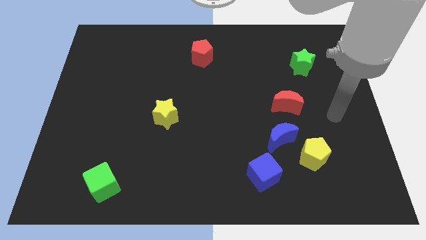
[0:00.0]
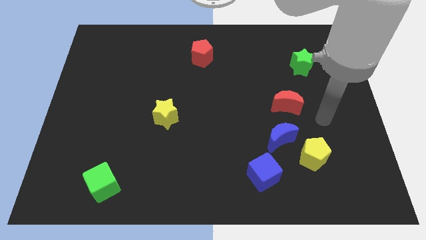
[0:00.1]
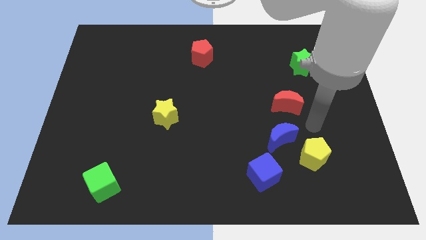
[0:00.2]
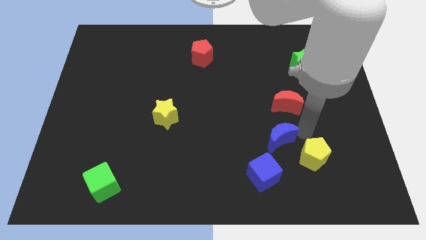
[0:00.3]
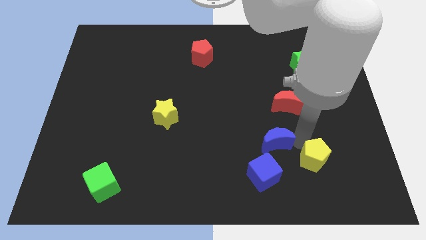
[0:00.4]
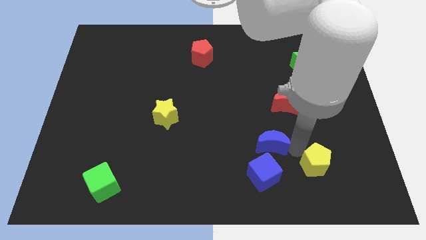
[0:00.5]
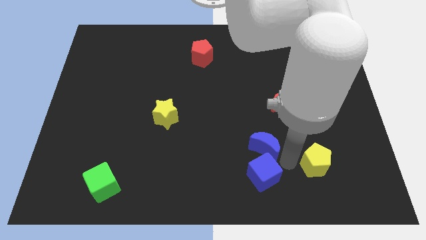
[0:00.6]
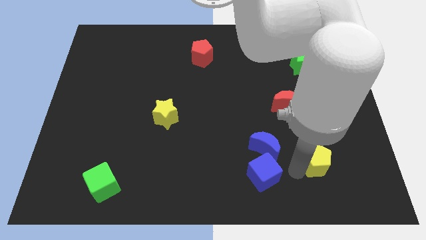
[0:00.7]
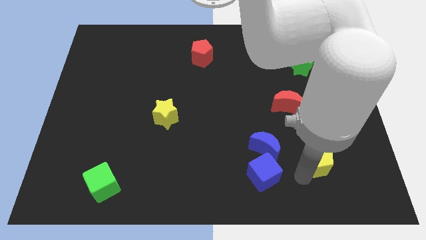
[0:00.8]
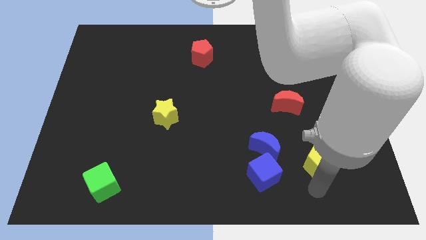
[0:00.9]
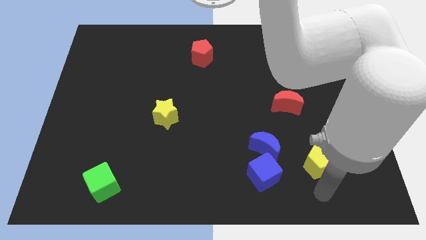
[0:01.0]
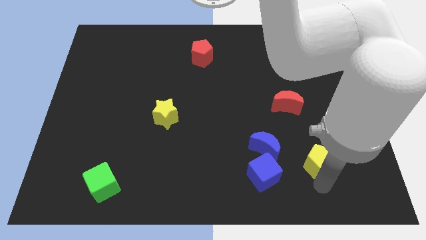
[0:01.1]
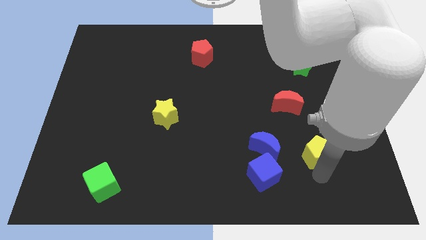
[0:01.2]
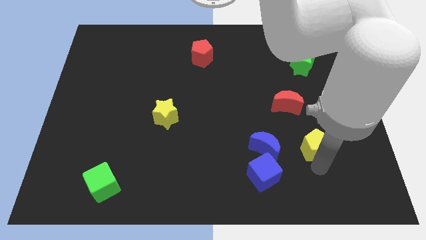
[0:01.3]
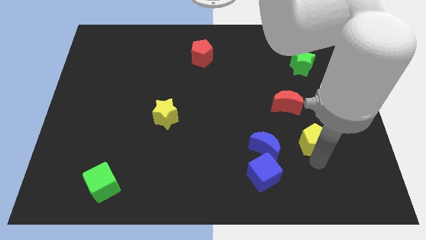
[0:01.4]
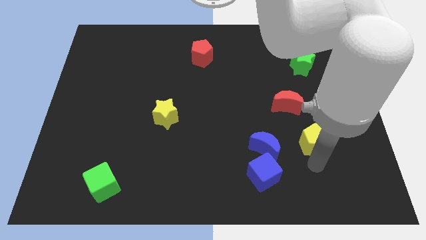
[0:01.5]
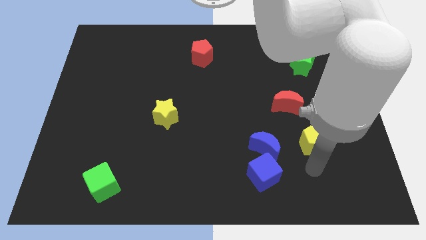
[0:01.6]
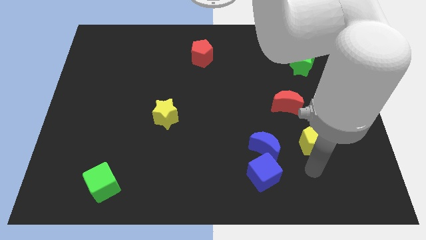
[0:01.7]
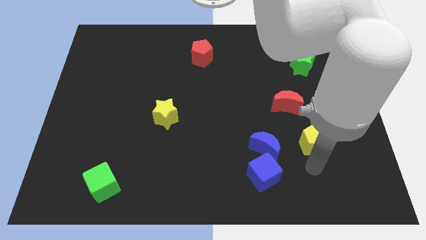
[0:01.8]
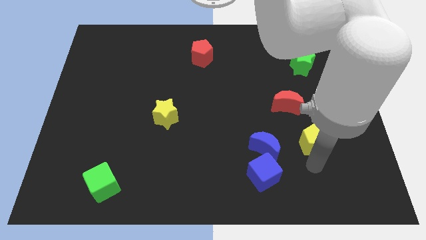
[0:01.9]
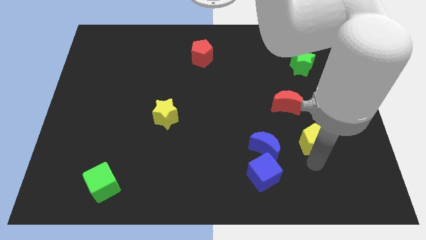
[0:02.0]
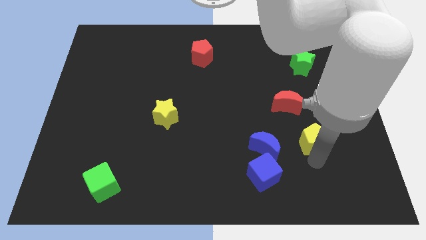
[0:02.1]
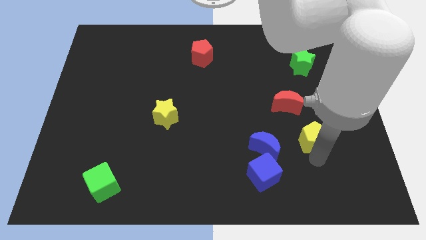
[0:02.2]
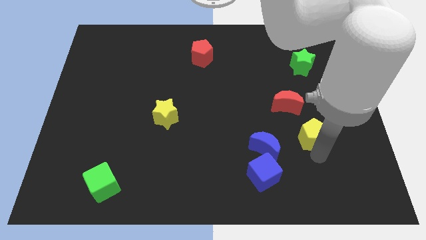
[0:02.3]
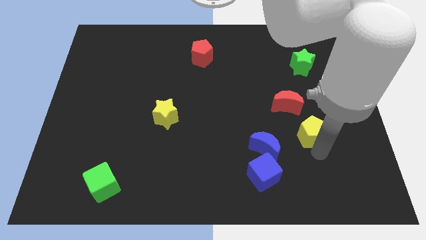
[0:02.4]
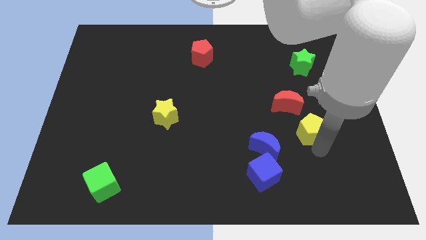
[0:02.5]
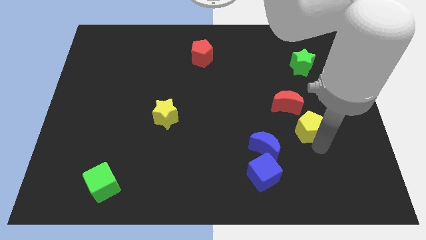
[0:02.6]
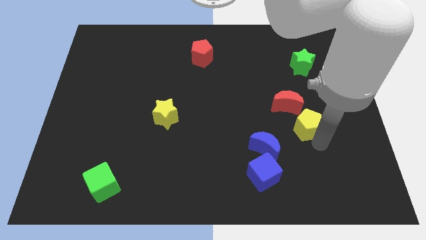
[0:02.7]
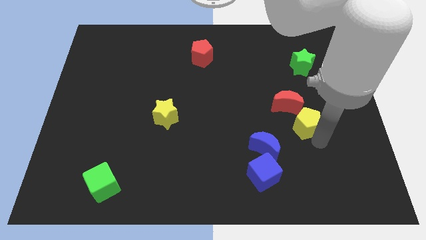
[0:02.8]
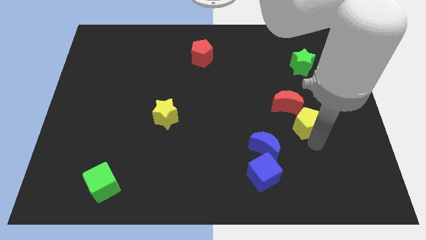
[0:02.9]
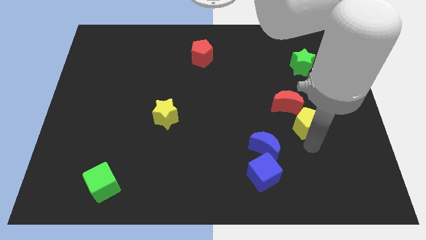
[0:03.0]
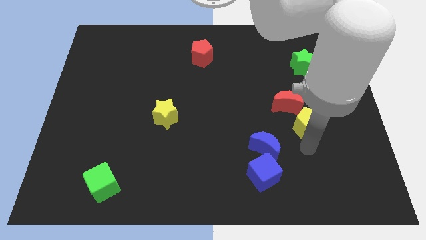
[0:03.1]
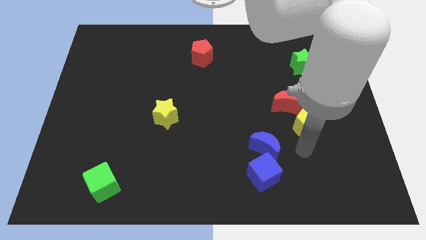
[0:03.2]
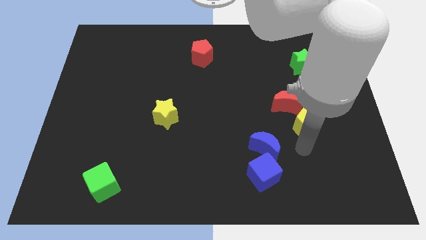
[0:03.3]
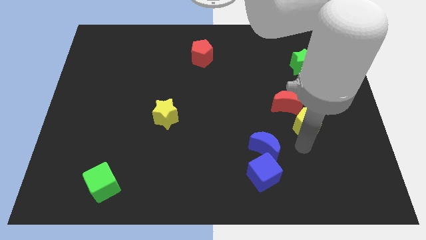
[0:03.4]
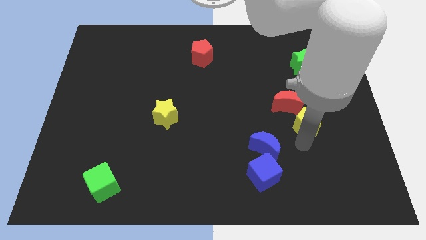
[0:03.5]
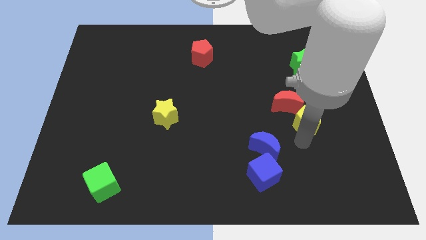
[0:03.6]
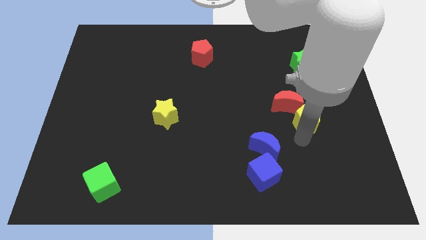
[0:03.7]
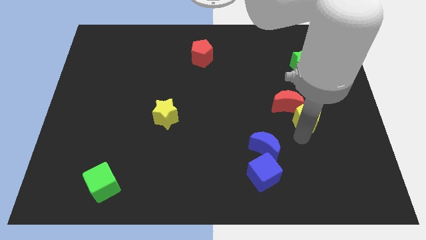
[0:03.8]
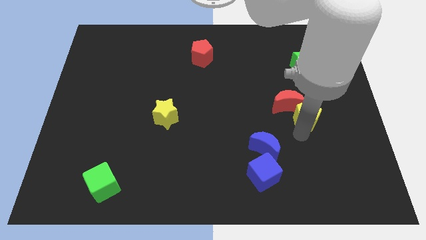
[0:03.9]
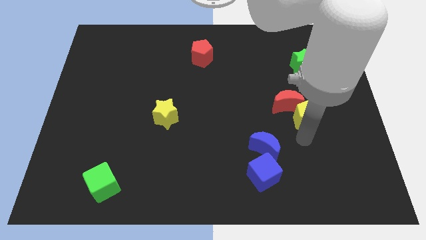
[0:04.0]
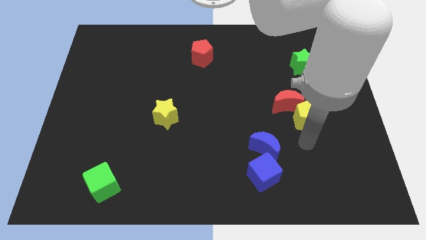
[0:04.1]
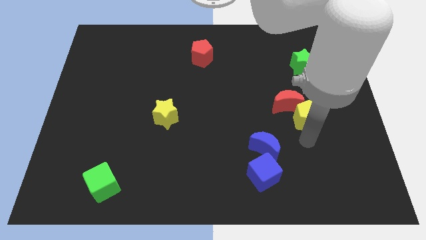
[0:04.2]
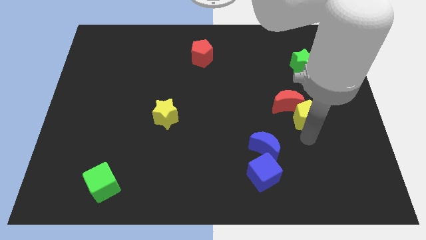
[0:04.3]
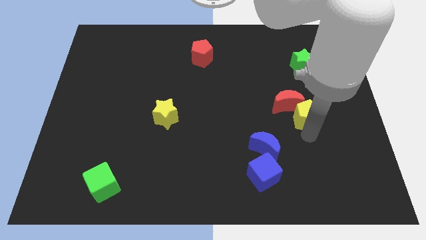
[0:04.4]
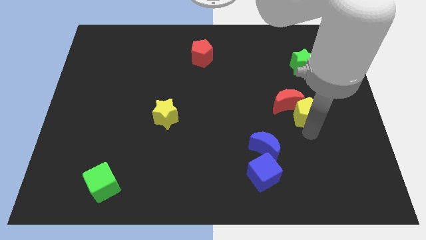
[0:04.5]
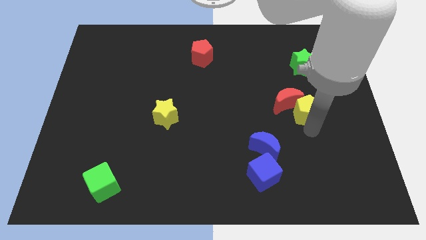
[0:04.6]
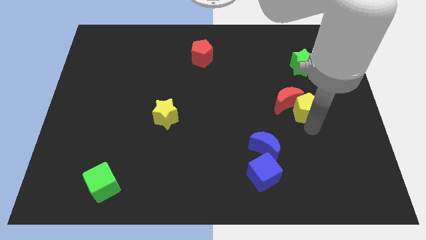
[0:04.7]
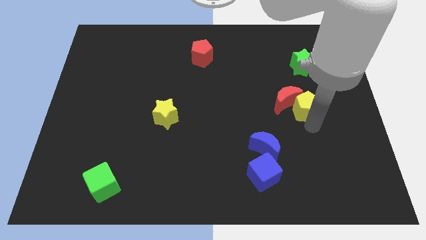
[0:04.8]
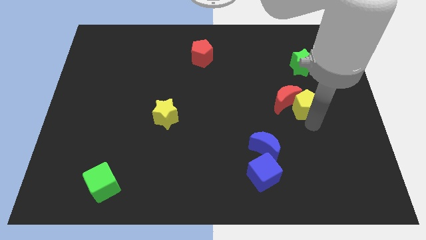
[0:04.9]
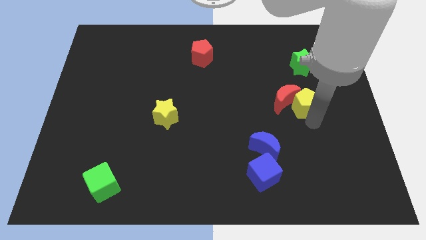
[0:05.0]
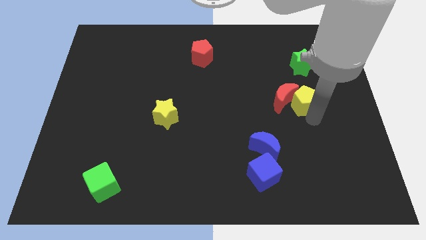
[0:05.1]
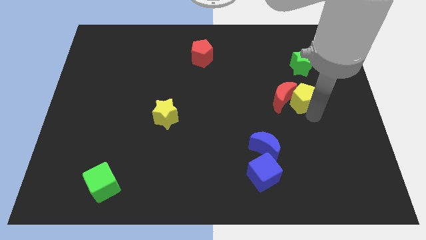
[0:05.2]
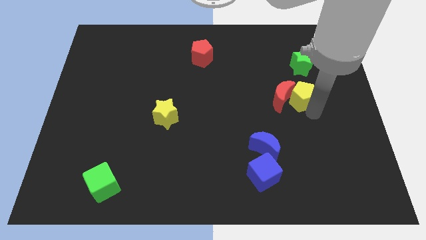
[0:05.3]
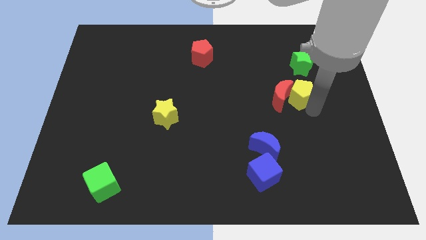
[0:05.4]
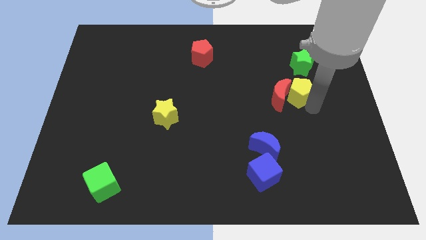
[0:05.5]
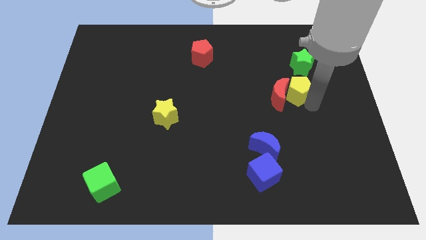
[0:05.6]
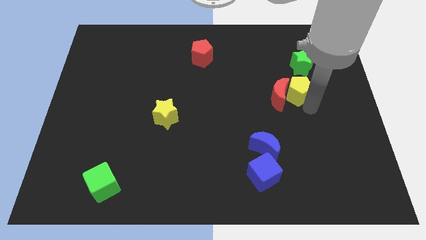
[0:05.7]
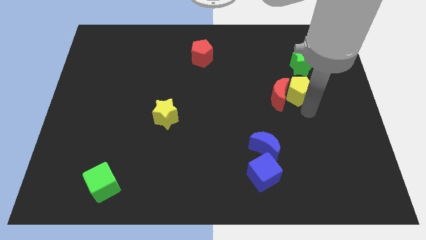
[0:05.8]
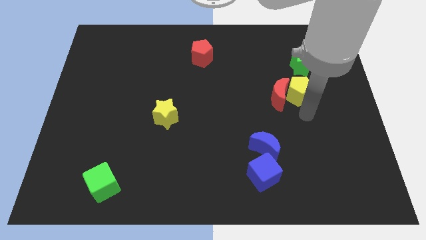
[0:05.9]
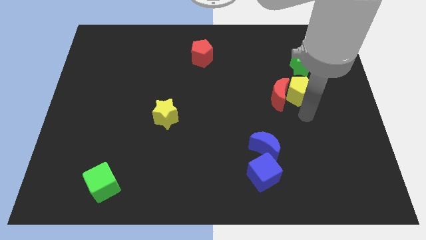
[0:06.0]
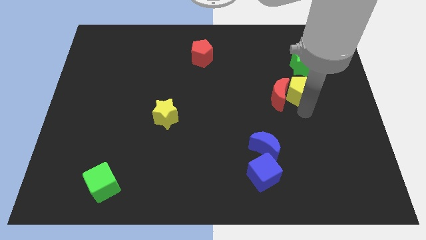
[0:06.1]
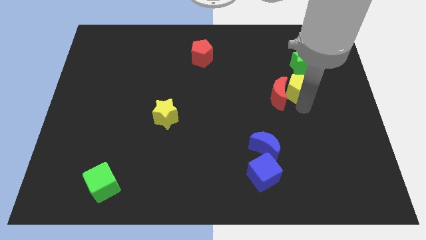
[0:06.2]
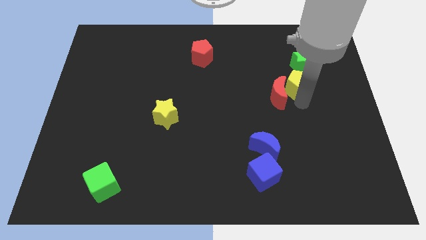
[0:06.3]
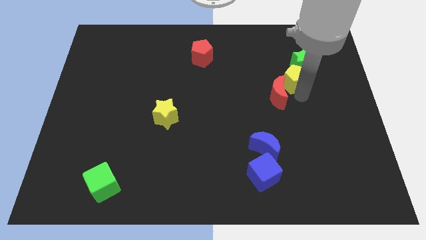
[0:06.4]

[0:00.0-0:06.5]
slide the yellow pentagon above the red moon
